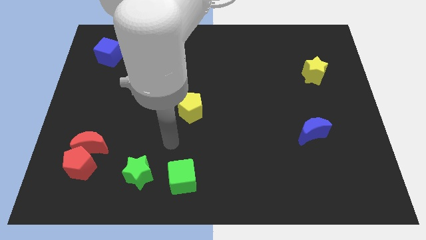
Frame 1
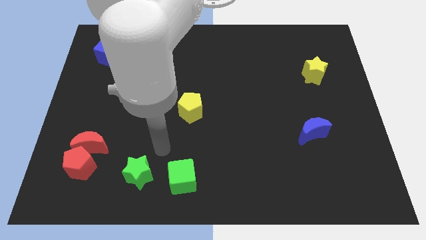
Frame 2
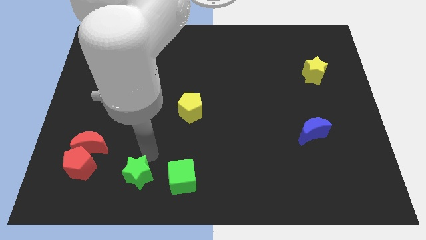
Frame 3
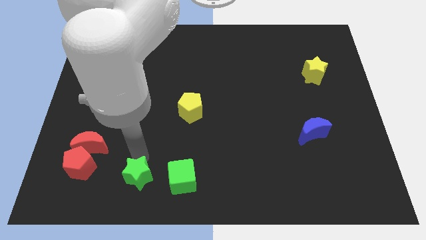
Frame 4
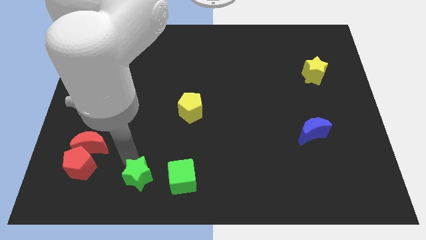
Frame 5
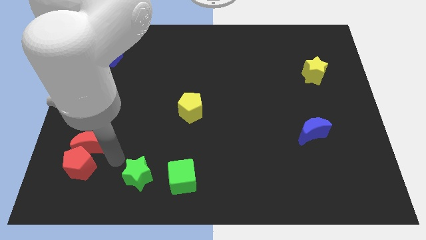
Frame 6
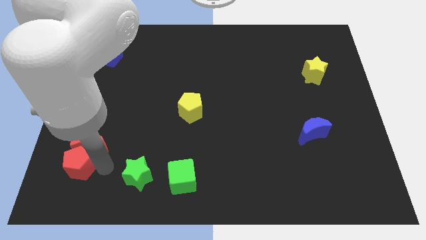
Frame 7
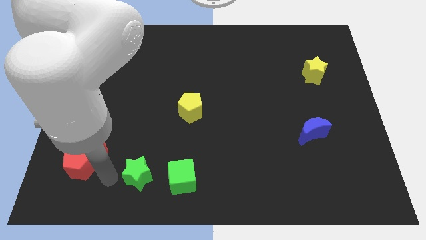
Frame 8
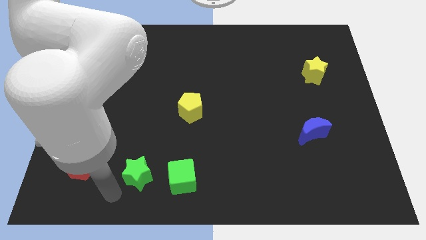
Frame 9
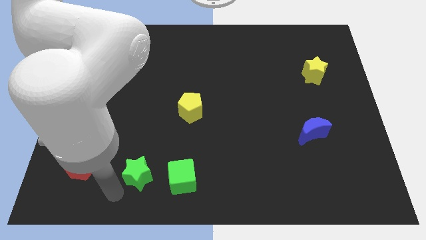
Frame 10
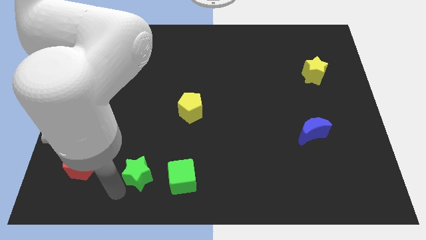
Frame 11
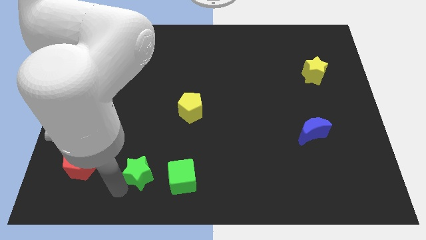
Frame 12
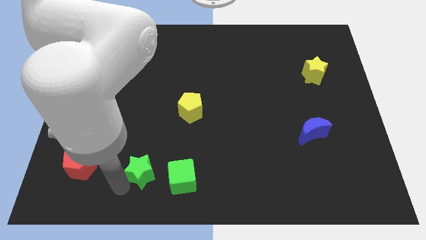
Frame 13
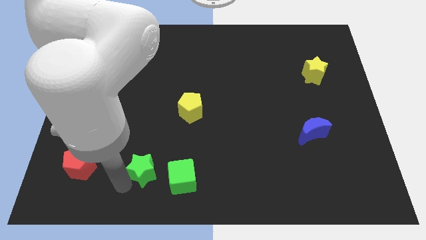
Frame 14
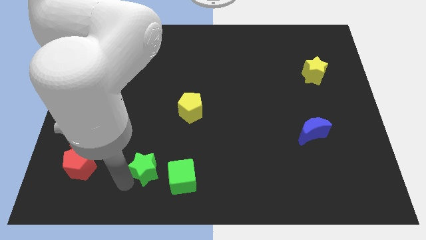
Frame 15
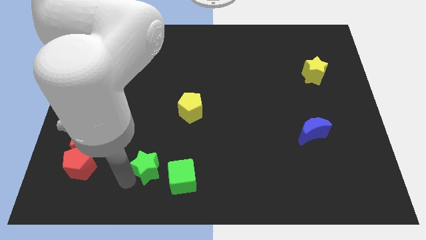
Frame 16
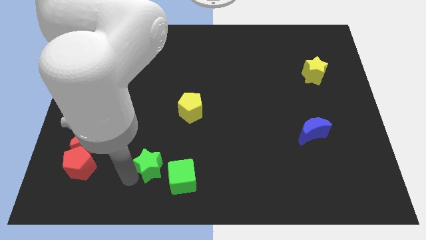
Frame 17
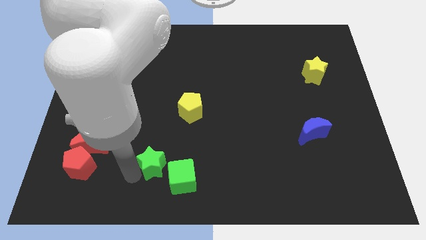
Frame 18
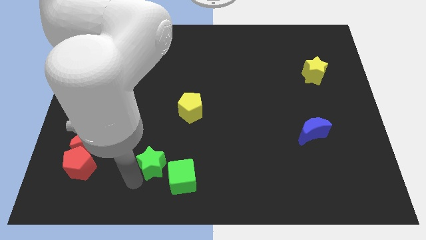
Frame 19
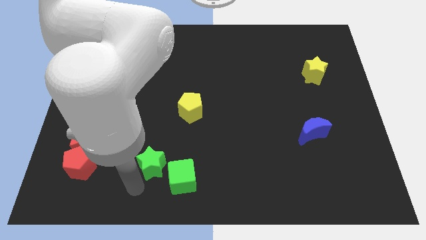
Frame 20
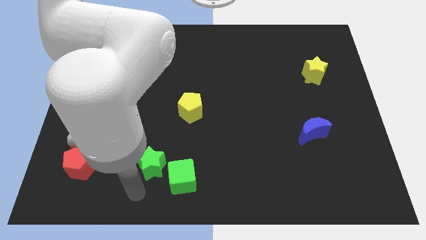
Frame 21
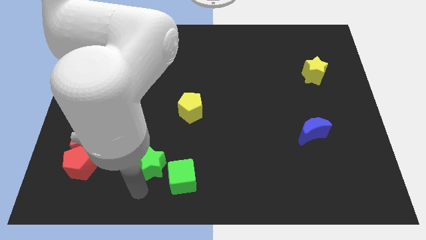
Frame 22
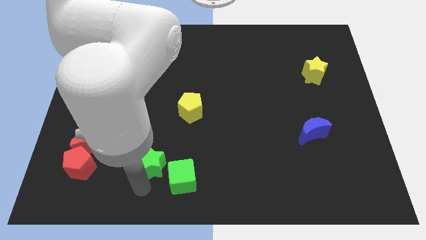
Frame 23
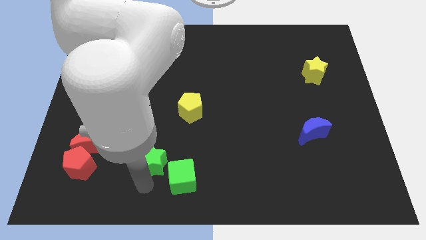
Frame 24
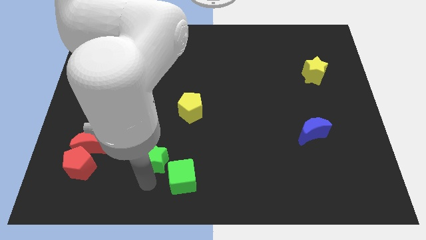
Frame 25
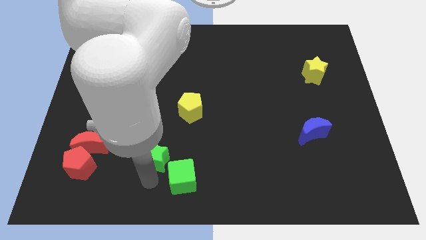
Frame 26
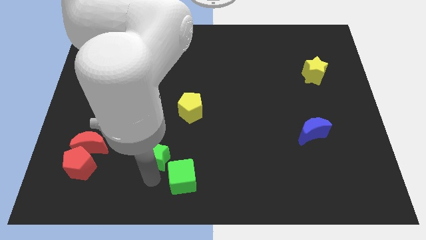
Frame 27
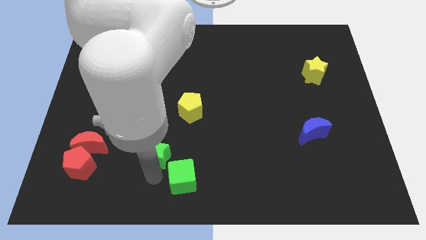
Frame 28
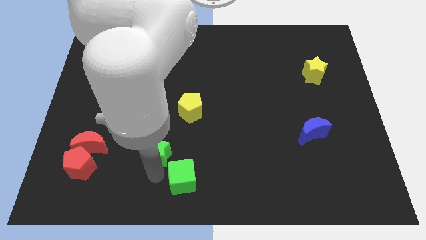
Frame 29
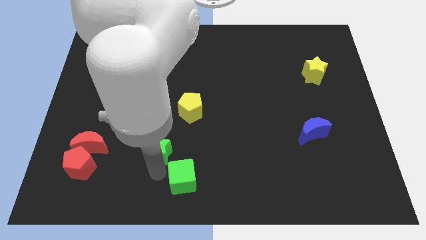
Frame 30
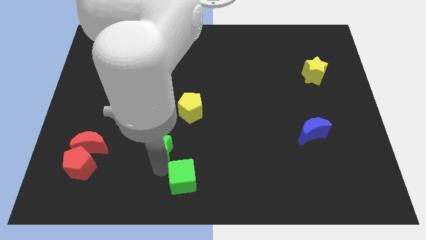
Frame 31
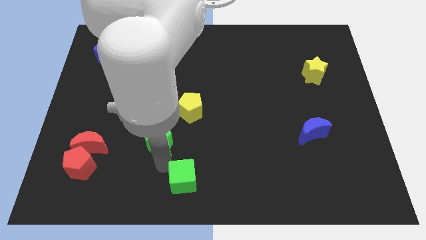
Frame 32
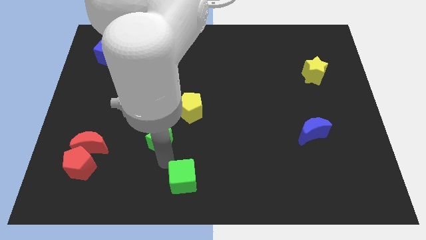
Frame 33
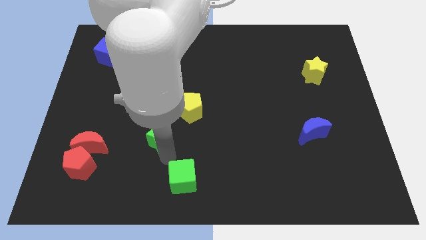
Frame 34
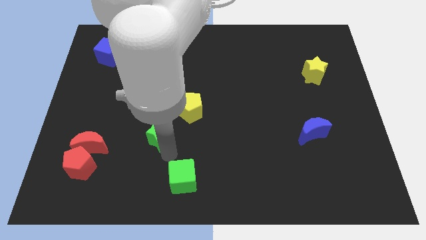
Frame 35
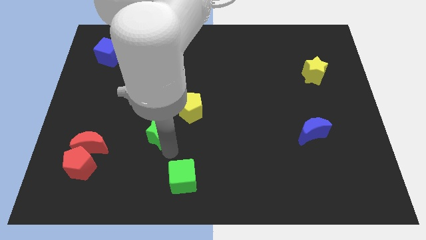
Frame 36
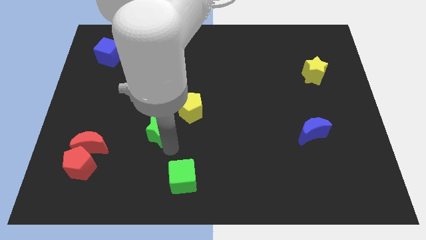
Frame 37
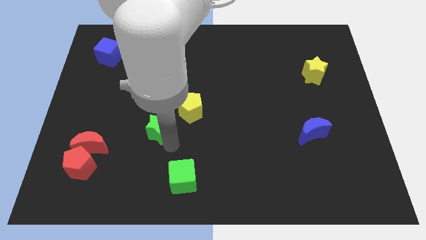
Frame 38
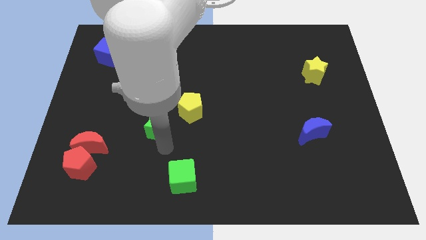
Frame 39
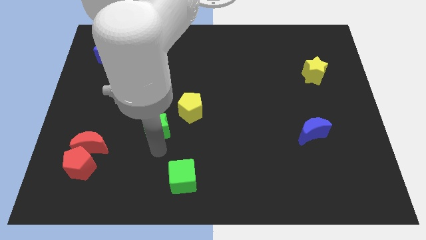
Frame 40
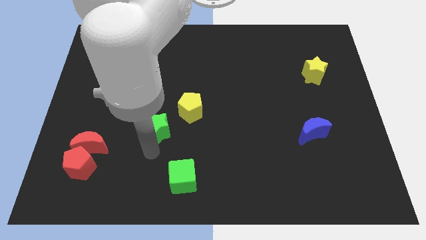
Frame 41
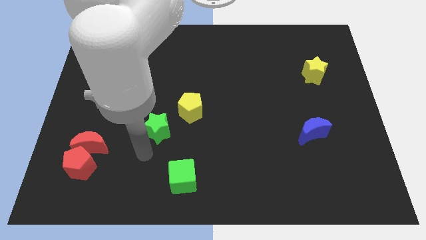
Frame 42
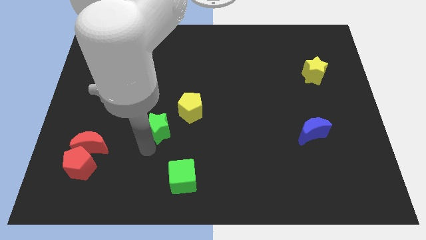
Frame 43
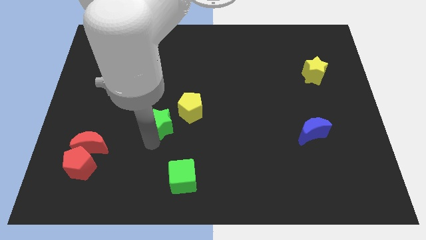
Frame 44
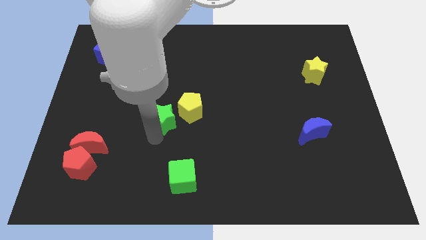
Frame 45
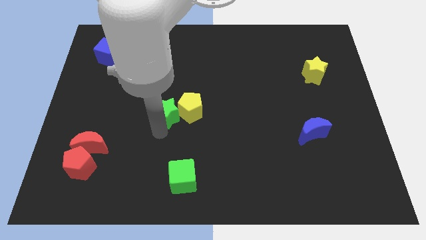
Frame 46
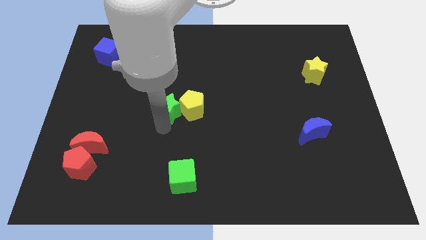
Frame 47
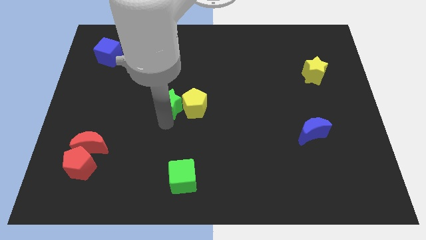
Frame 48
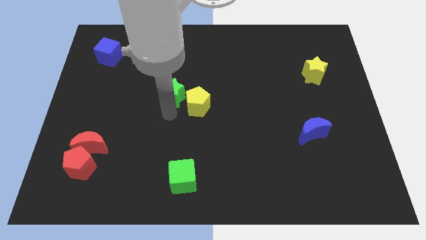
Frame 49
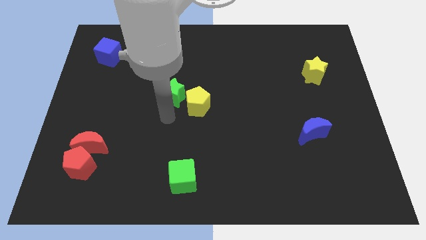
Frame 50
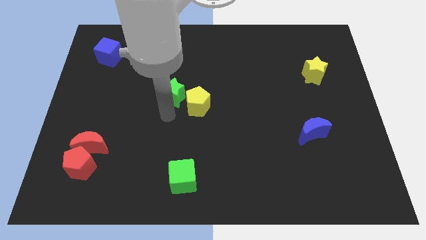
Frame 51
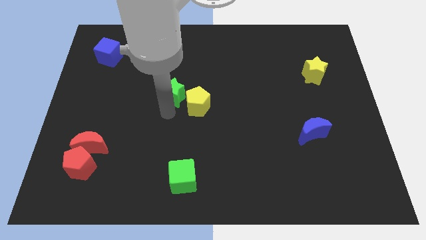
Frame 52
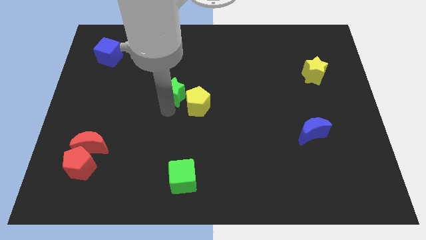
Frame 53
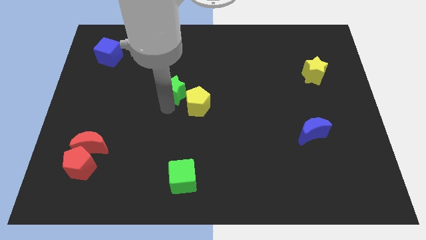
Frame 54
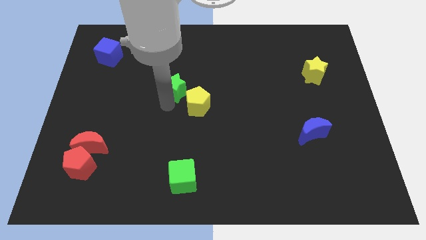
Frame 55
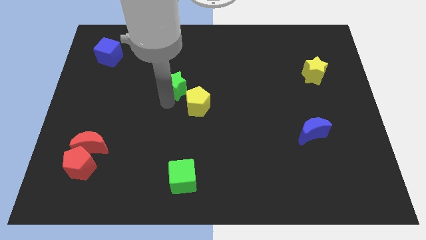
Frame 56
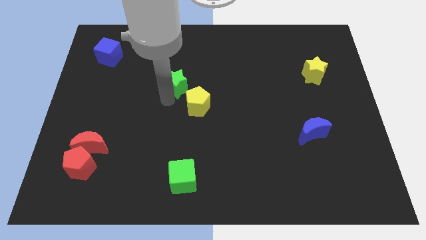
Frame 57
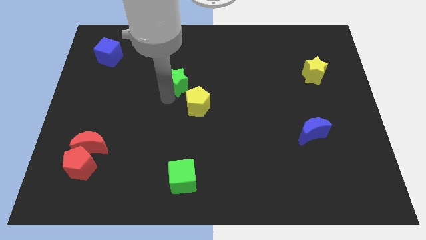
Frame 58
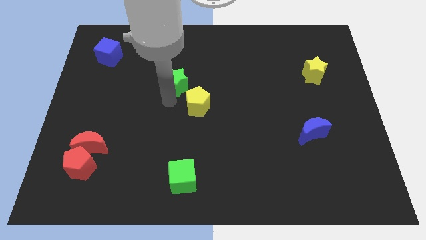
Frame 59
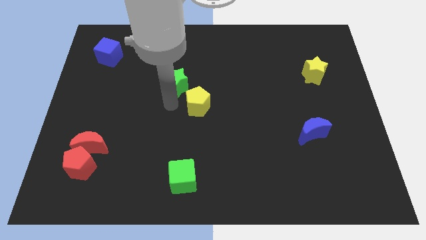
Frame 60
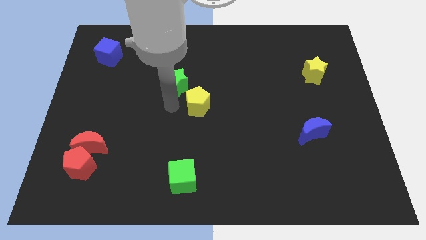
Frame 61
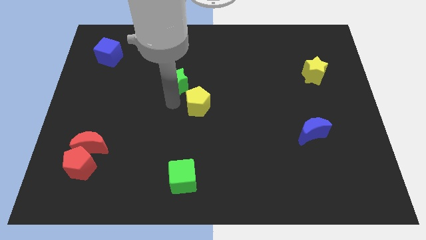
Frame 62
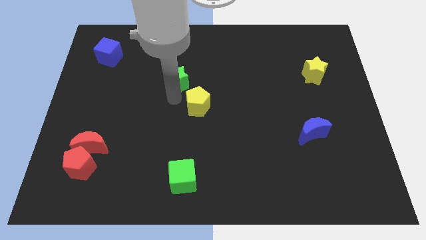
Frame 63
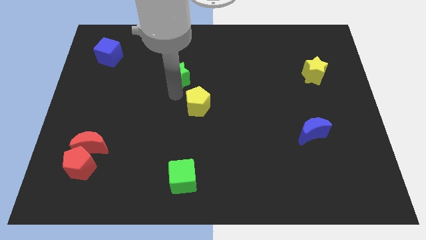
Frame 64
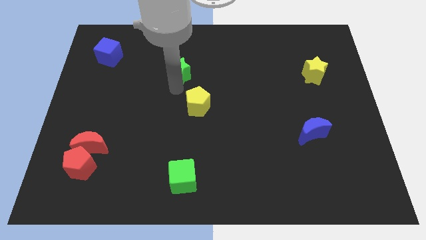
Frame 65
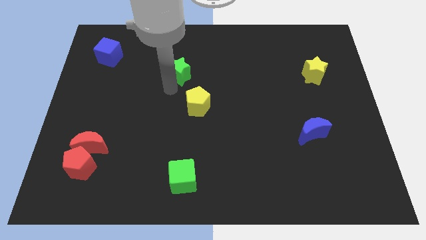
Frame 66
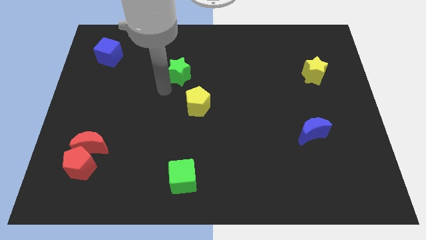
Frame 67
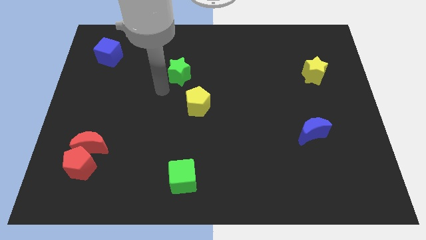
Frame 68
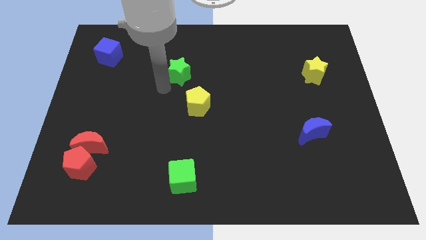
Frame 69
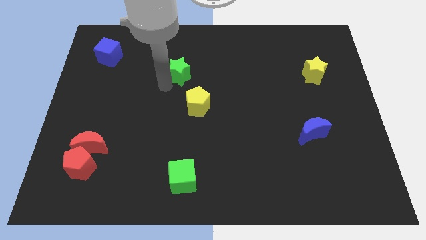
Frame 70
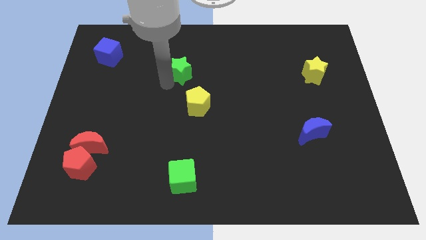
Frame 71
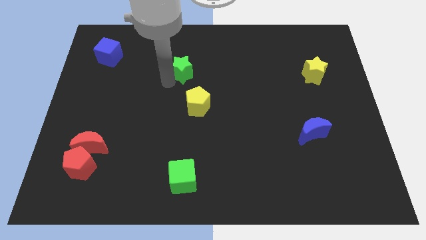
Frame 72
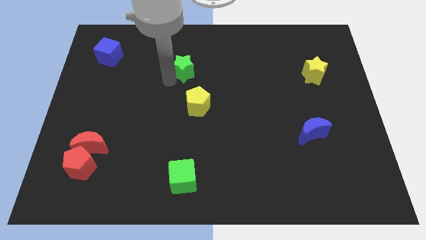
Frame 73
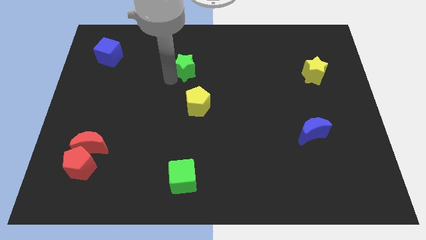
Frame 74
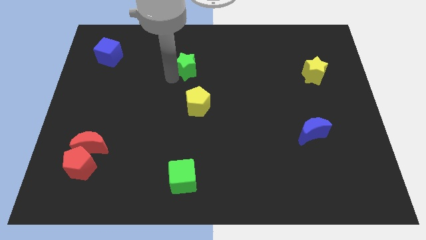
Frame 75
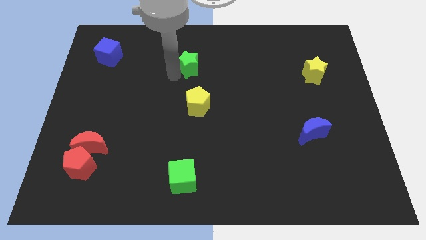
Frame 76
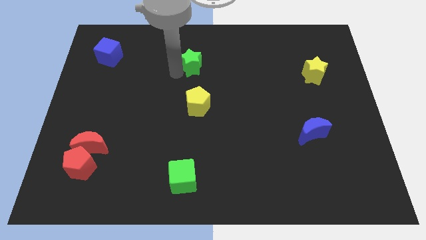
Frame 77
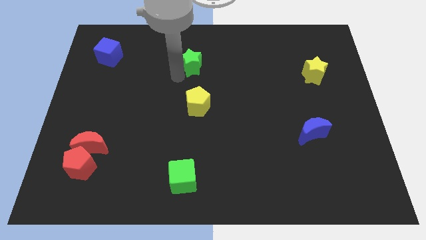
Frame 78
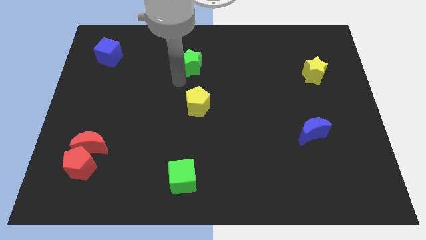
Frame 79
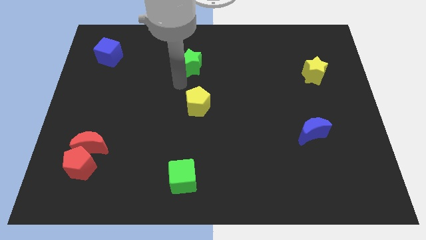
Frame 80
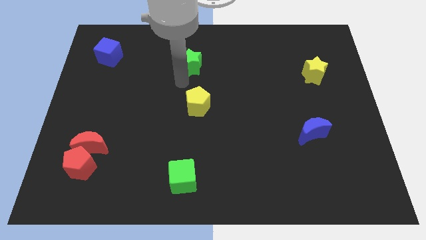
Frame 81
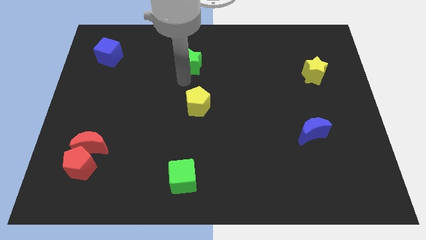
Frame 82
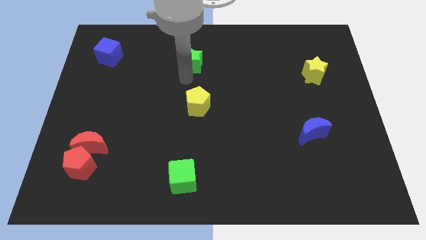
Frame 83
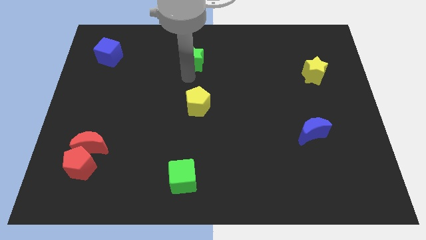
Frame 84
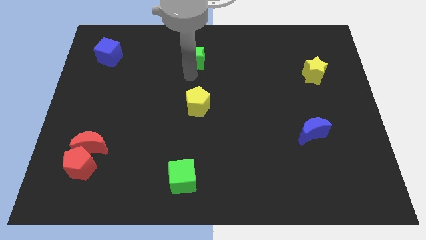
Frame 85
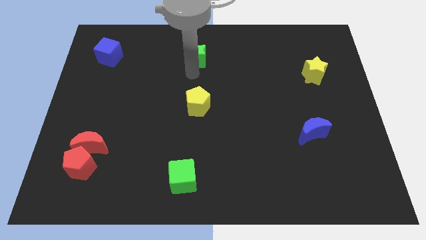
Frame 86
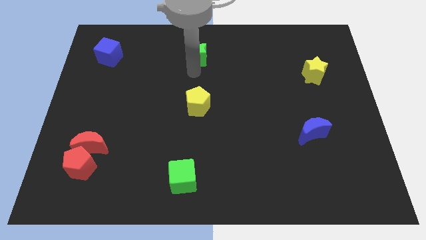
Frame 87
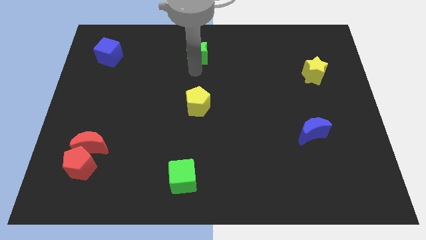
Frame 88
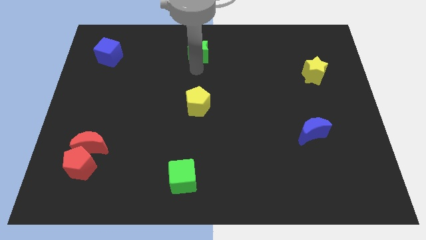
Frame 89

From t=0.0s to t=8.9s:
slide the green star to the towards your base
